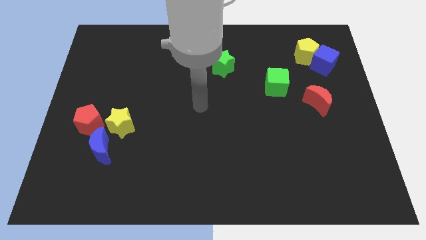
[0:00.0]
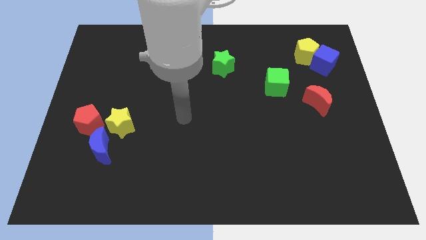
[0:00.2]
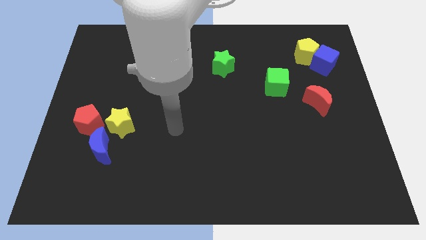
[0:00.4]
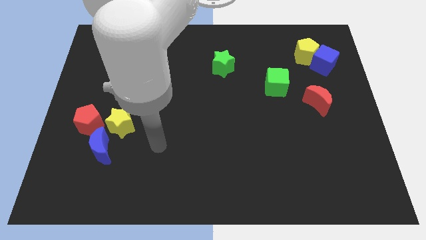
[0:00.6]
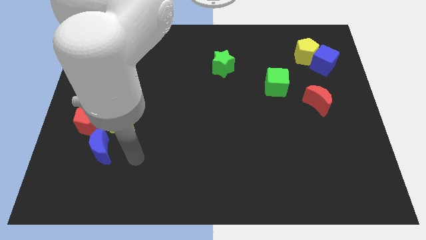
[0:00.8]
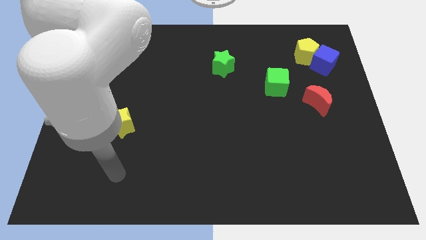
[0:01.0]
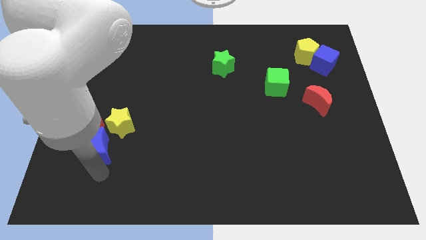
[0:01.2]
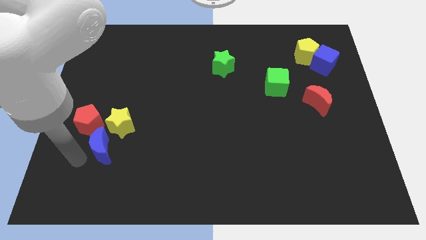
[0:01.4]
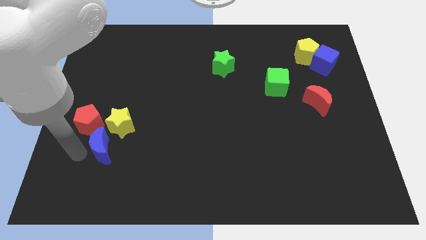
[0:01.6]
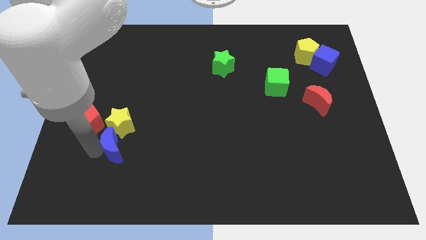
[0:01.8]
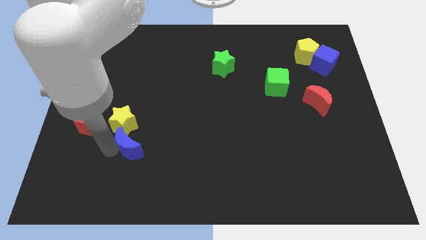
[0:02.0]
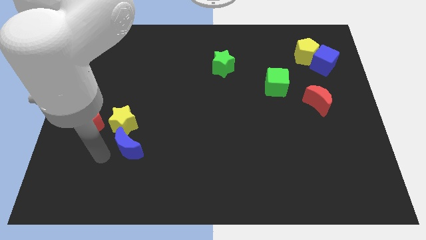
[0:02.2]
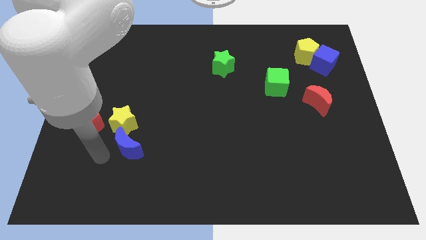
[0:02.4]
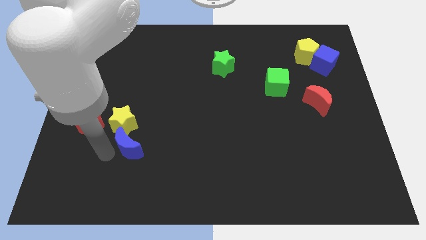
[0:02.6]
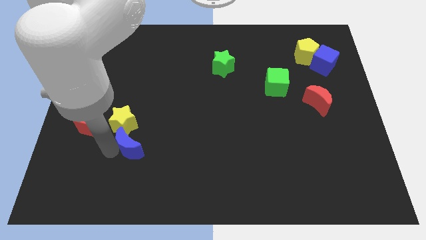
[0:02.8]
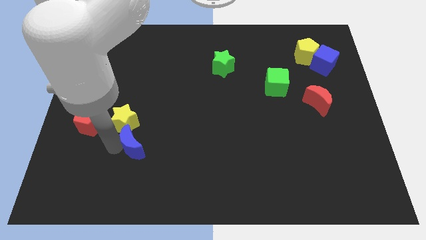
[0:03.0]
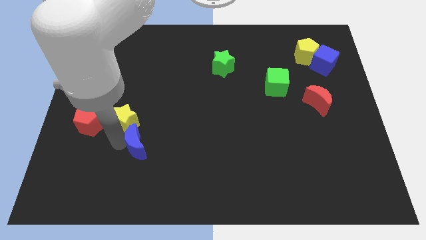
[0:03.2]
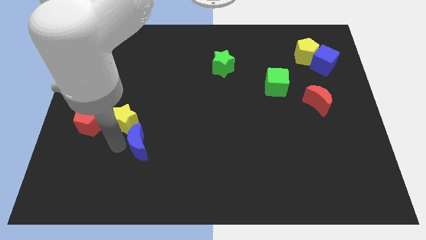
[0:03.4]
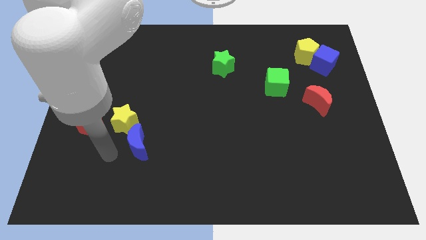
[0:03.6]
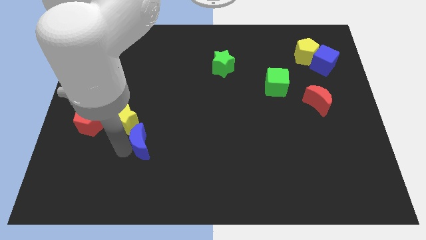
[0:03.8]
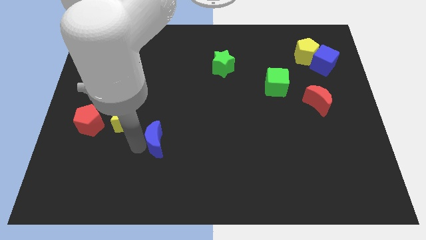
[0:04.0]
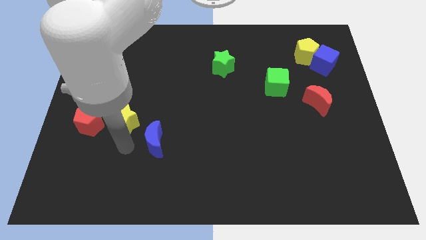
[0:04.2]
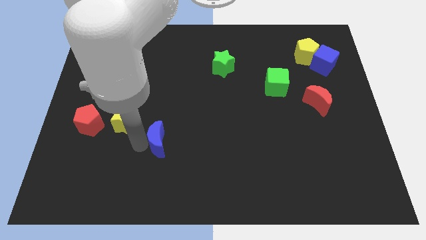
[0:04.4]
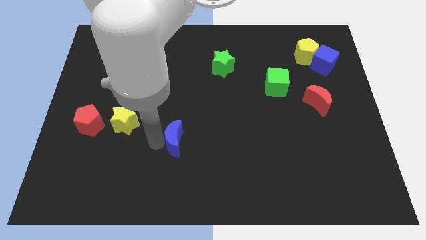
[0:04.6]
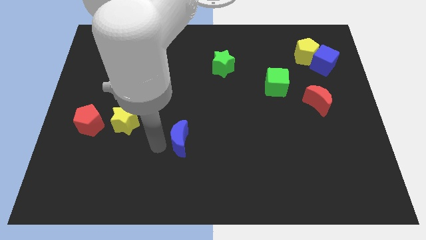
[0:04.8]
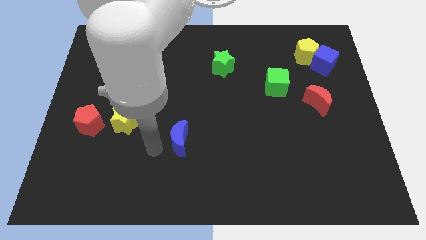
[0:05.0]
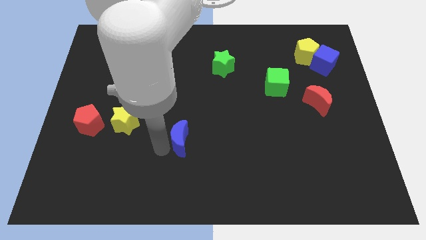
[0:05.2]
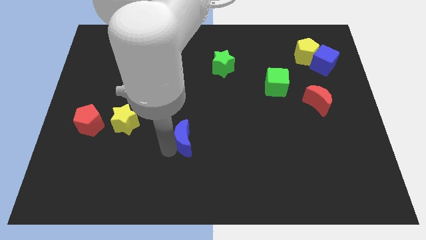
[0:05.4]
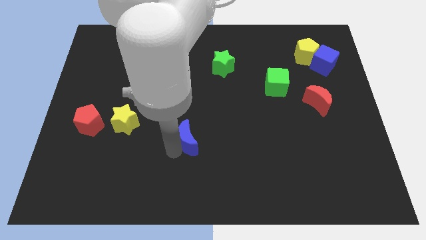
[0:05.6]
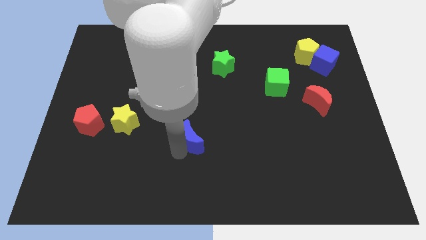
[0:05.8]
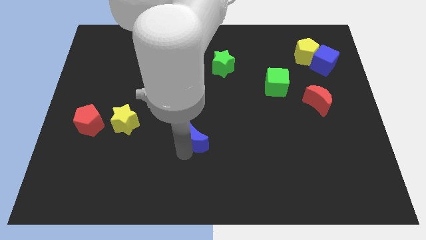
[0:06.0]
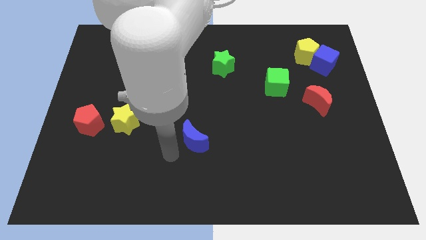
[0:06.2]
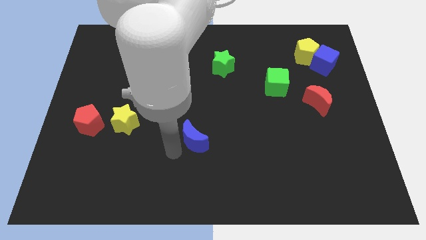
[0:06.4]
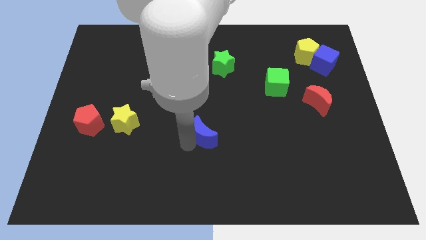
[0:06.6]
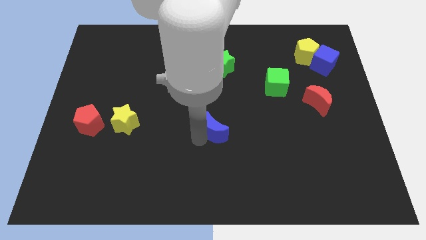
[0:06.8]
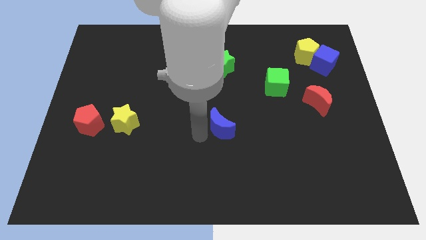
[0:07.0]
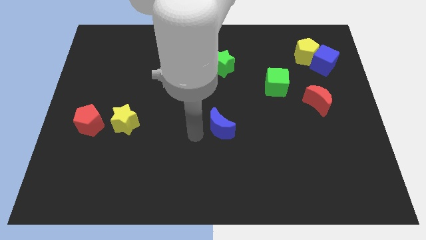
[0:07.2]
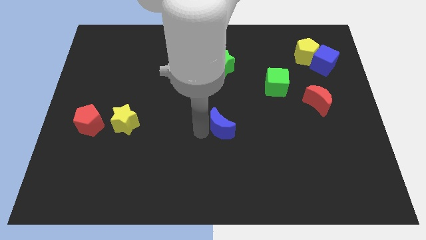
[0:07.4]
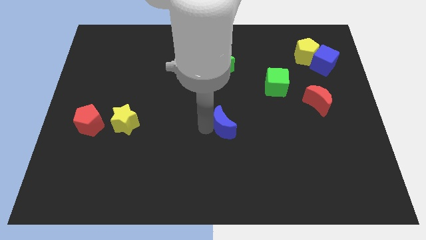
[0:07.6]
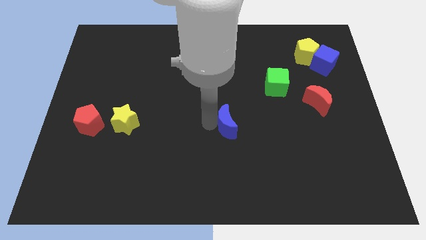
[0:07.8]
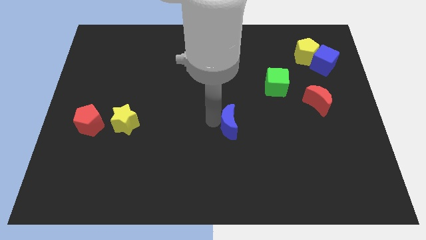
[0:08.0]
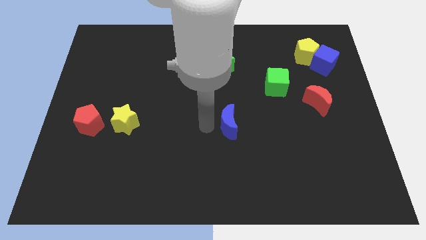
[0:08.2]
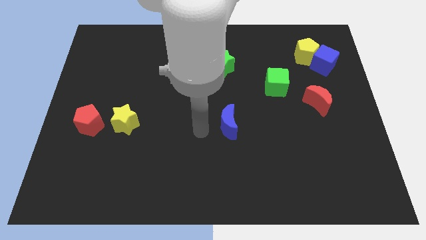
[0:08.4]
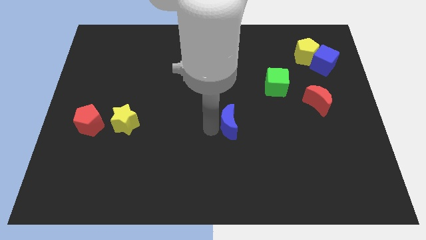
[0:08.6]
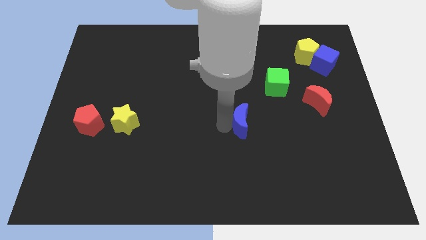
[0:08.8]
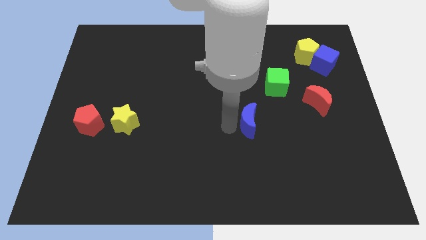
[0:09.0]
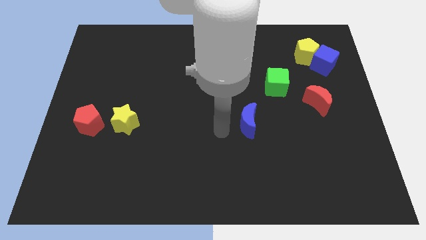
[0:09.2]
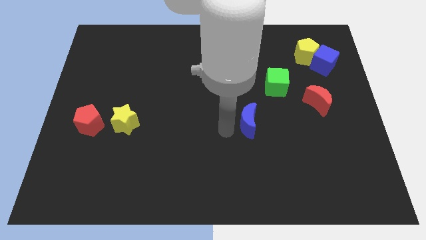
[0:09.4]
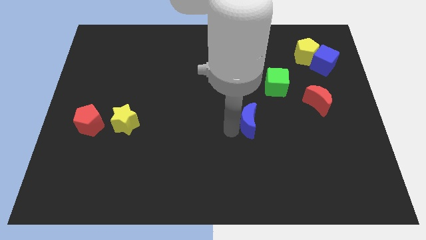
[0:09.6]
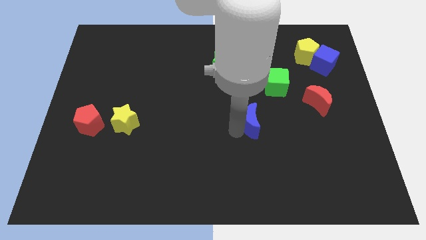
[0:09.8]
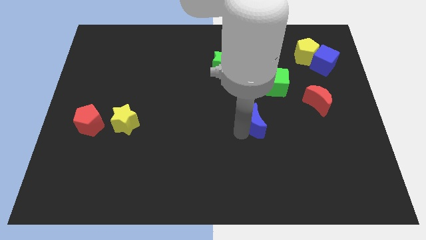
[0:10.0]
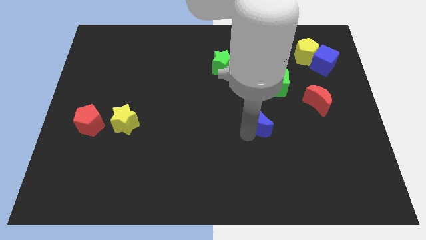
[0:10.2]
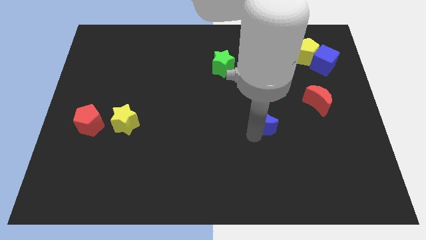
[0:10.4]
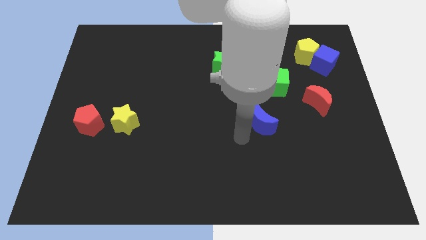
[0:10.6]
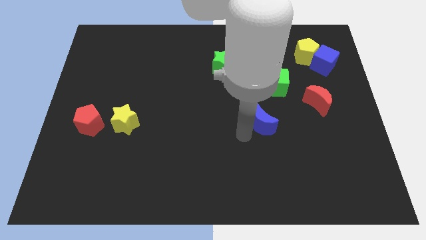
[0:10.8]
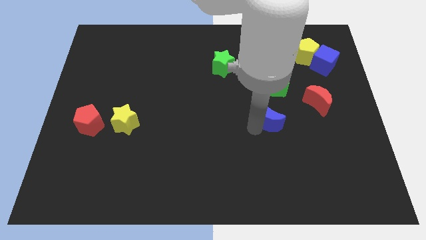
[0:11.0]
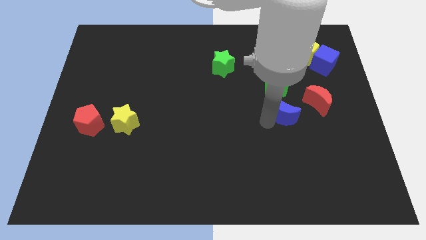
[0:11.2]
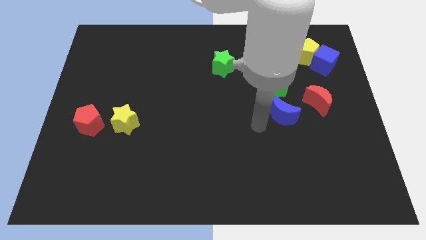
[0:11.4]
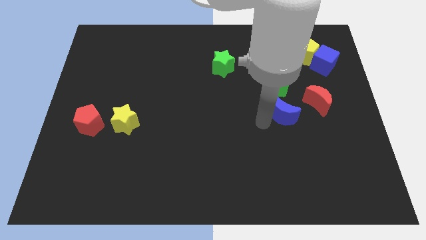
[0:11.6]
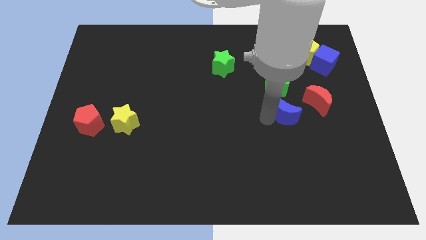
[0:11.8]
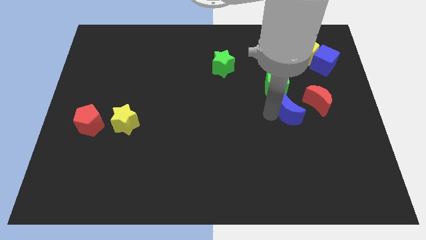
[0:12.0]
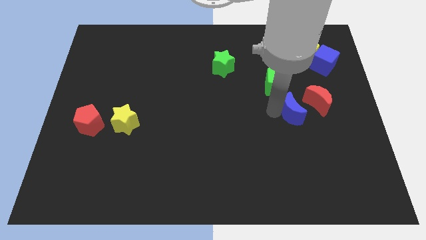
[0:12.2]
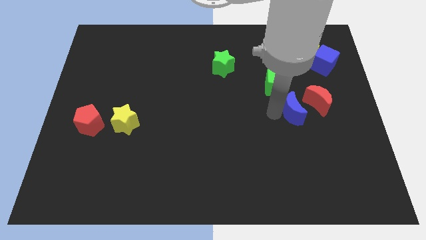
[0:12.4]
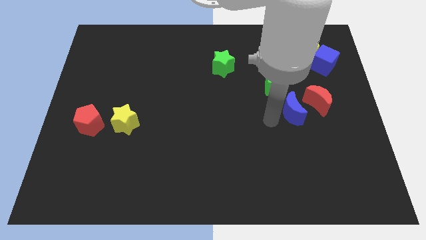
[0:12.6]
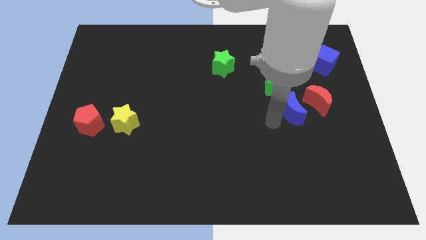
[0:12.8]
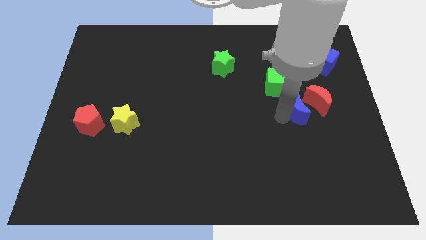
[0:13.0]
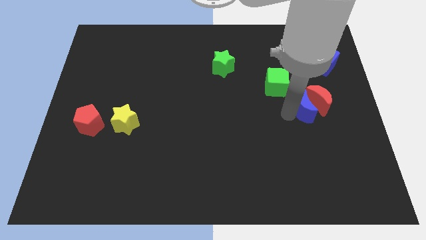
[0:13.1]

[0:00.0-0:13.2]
move the blue moon towards the red moon
